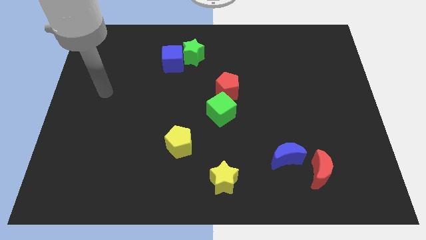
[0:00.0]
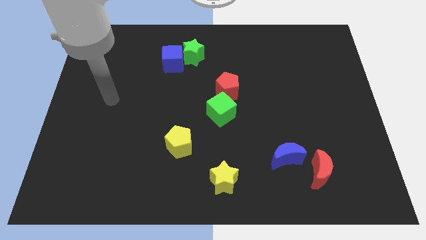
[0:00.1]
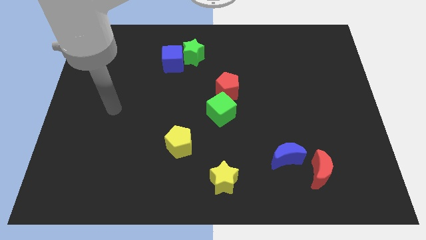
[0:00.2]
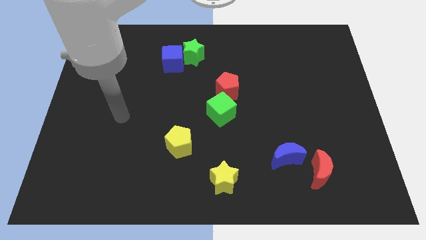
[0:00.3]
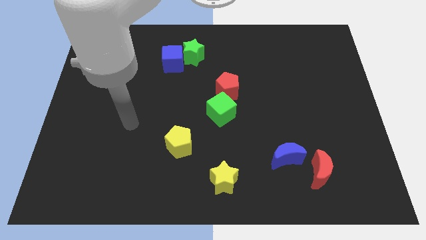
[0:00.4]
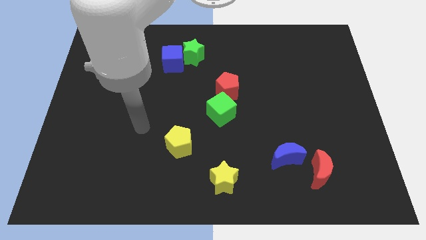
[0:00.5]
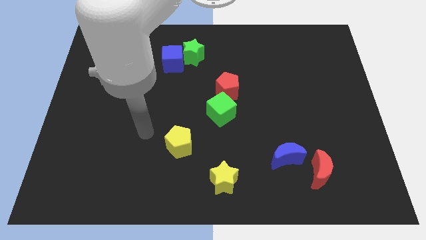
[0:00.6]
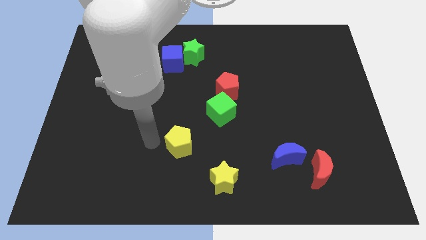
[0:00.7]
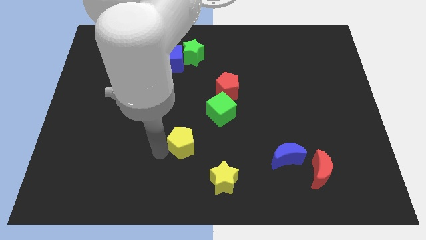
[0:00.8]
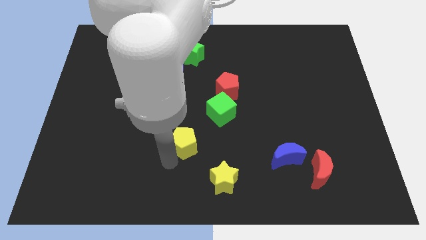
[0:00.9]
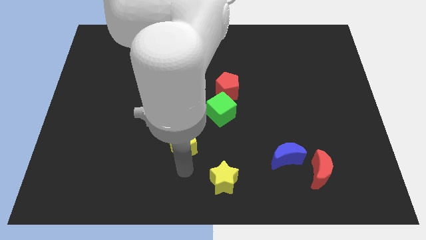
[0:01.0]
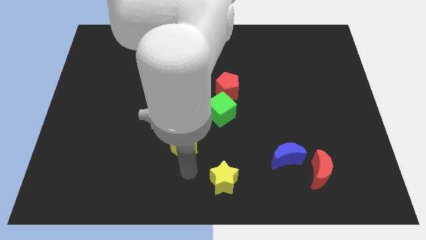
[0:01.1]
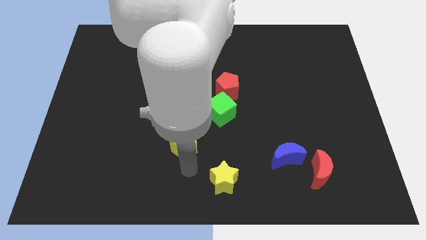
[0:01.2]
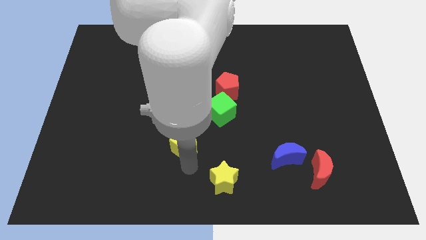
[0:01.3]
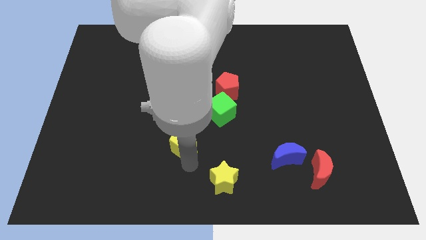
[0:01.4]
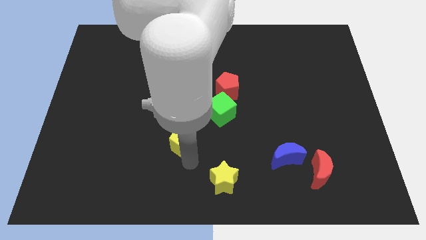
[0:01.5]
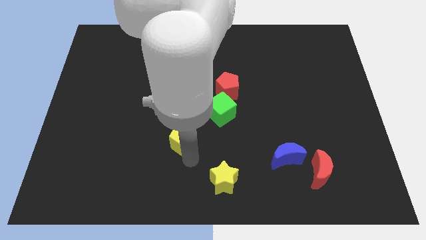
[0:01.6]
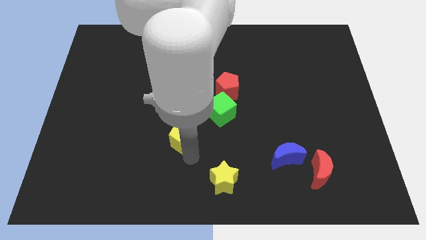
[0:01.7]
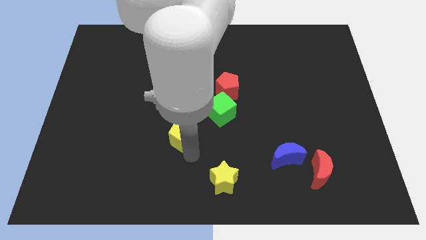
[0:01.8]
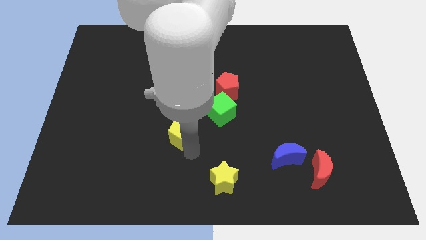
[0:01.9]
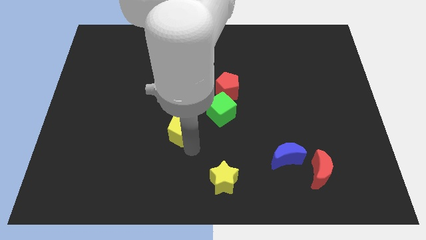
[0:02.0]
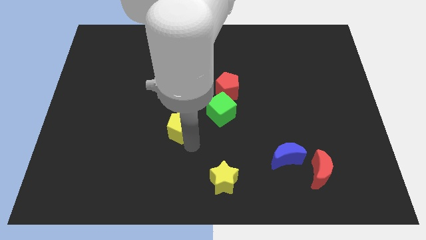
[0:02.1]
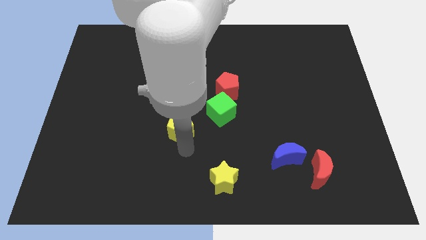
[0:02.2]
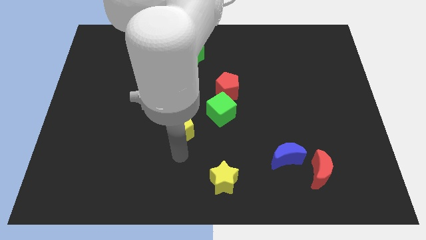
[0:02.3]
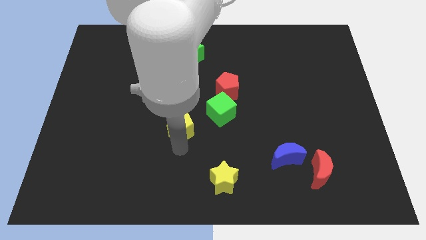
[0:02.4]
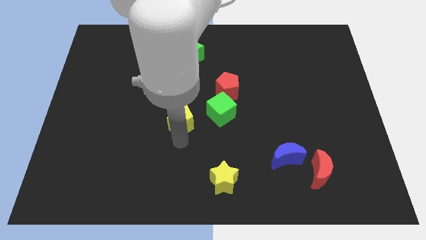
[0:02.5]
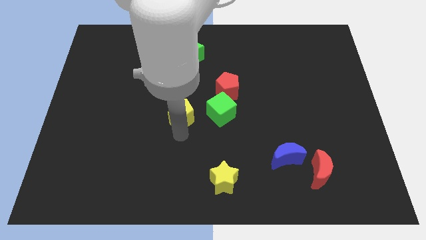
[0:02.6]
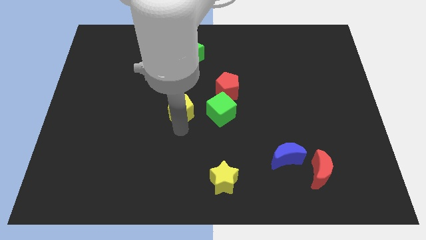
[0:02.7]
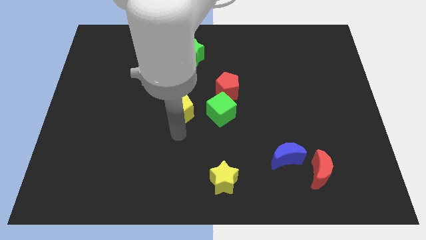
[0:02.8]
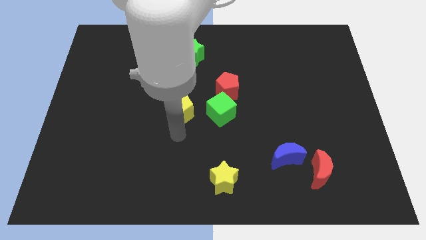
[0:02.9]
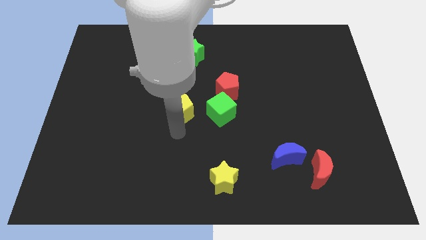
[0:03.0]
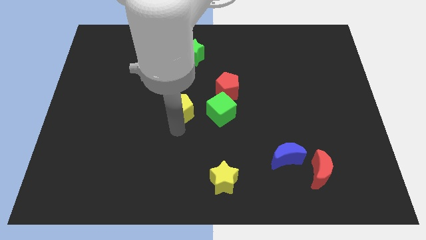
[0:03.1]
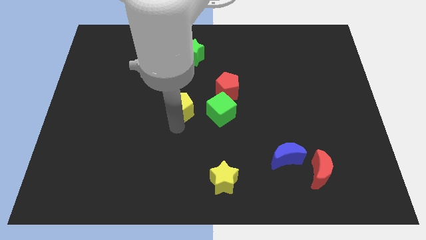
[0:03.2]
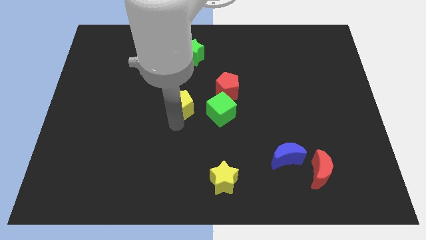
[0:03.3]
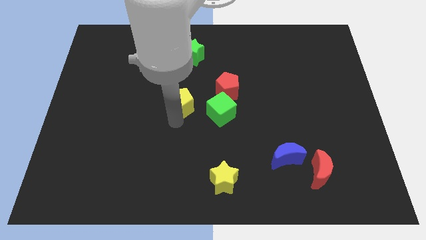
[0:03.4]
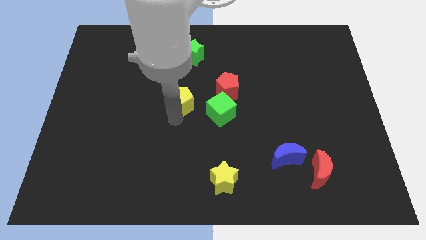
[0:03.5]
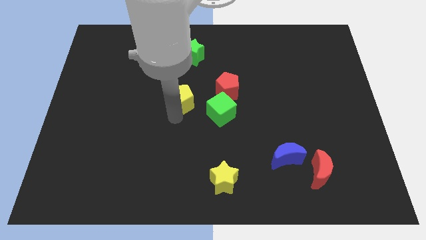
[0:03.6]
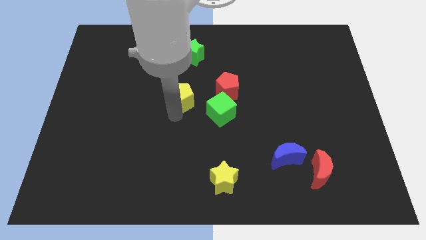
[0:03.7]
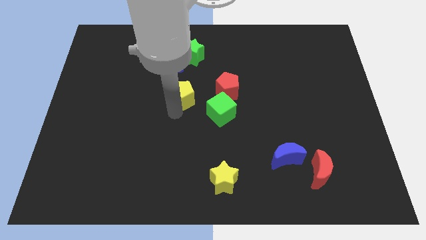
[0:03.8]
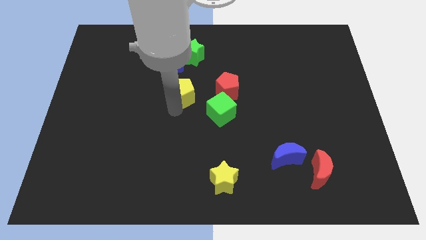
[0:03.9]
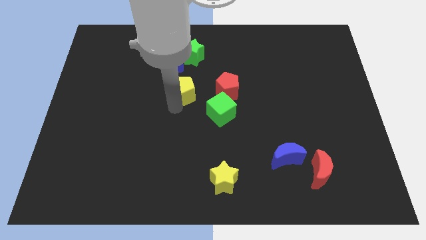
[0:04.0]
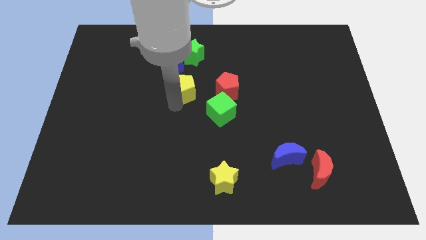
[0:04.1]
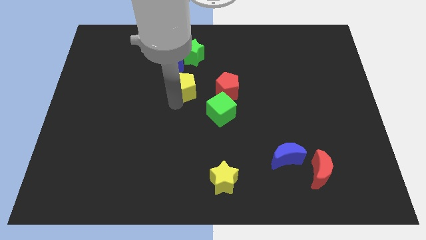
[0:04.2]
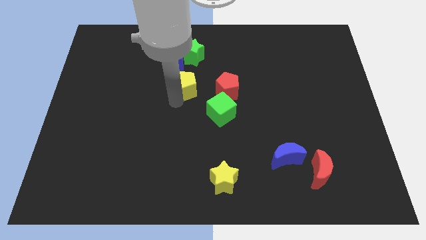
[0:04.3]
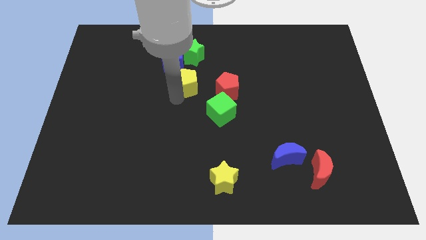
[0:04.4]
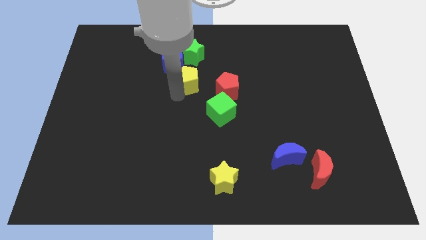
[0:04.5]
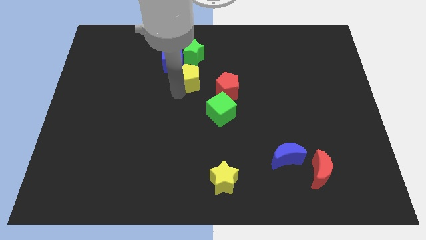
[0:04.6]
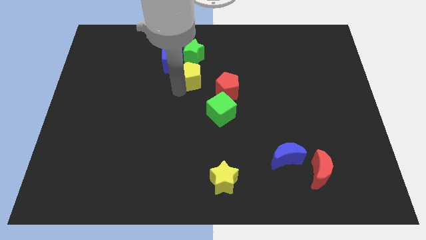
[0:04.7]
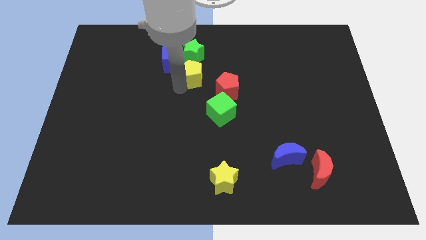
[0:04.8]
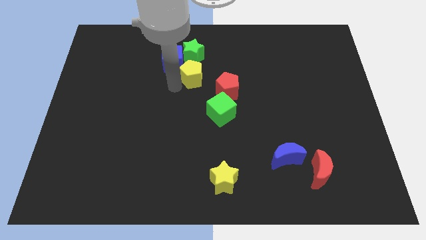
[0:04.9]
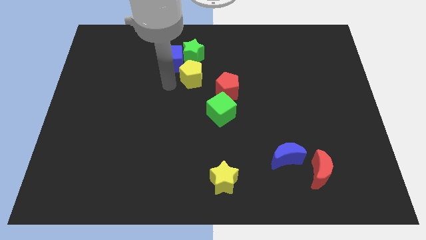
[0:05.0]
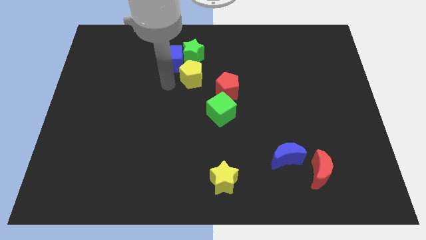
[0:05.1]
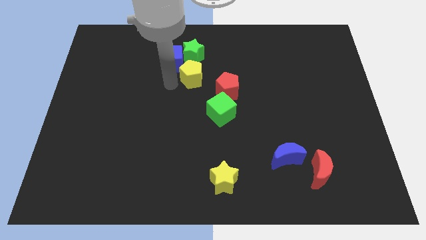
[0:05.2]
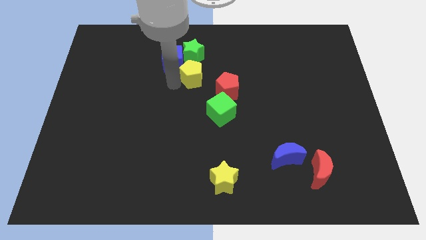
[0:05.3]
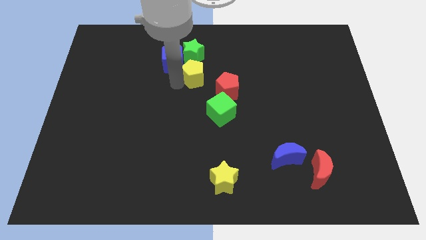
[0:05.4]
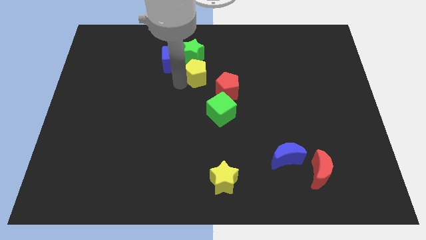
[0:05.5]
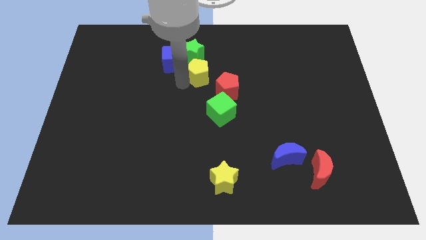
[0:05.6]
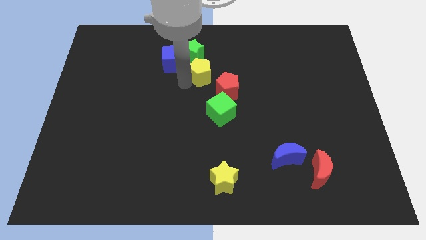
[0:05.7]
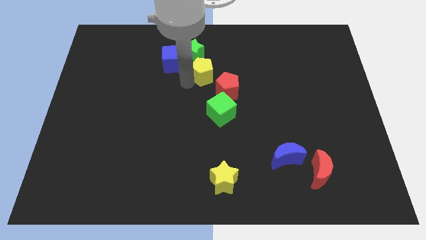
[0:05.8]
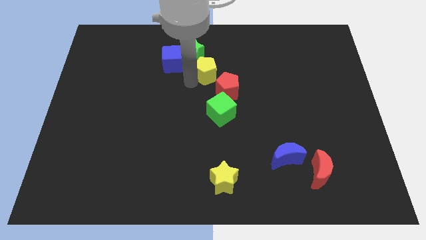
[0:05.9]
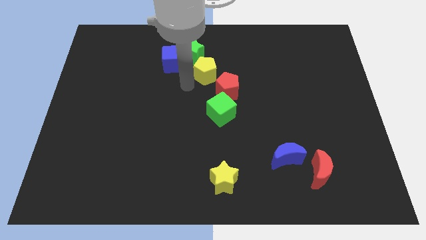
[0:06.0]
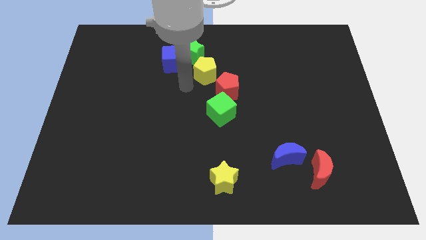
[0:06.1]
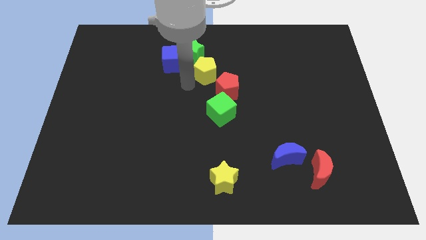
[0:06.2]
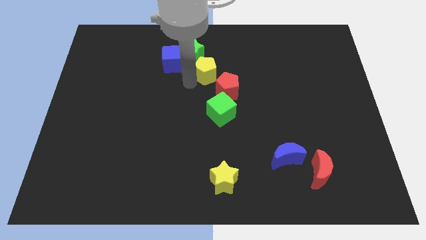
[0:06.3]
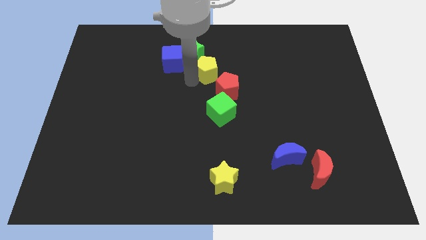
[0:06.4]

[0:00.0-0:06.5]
push the yellow pentagon to the top side of the red pentagon
